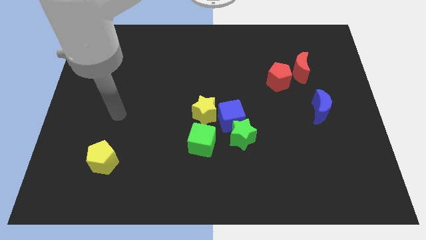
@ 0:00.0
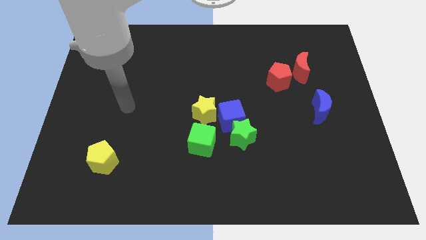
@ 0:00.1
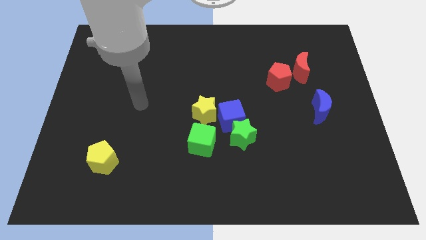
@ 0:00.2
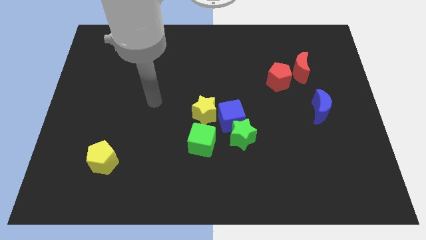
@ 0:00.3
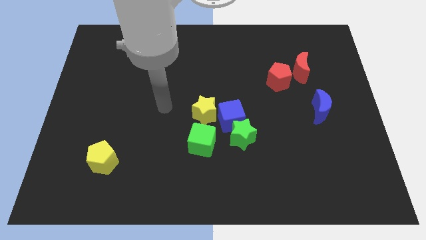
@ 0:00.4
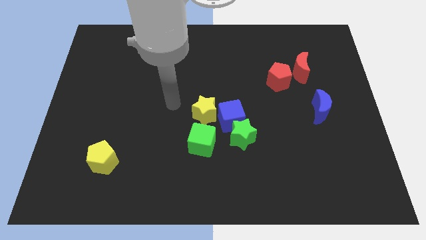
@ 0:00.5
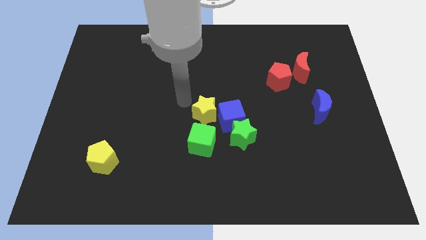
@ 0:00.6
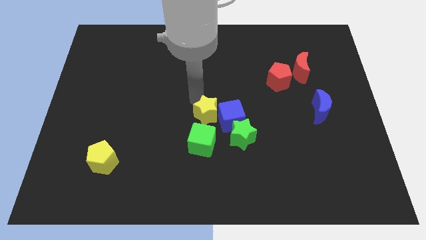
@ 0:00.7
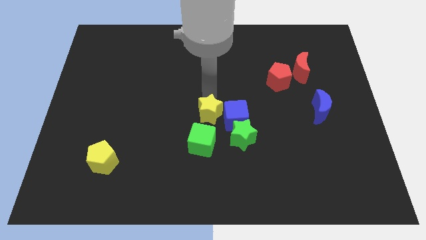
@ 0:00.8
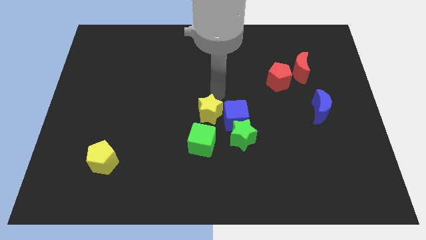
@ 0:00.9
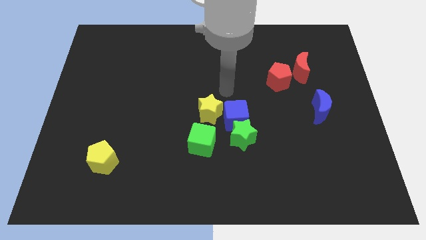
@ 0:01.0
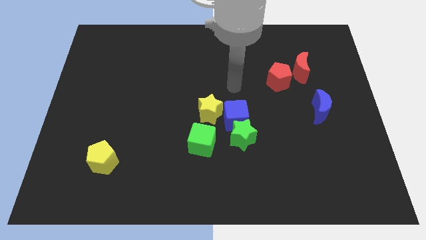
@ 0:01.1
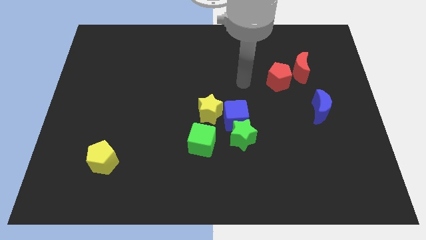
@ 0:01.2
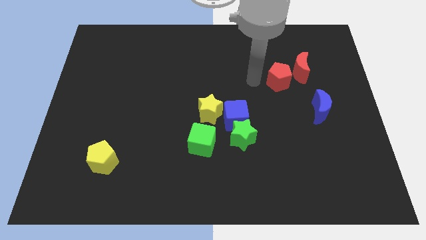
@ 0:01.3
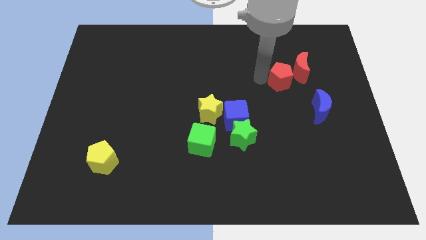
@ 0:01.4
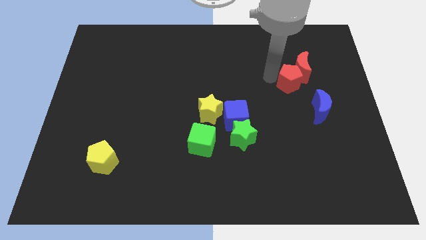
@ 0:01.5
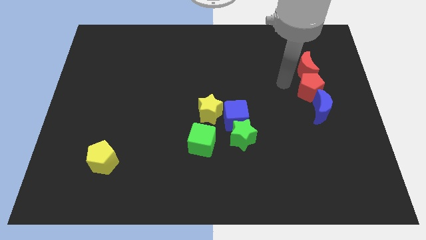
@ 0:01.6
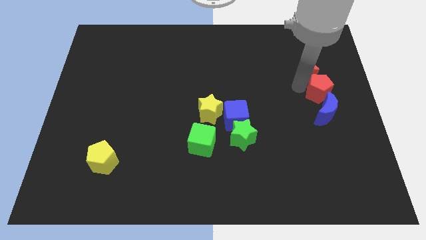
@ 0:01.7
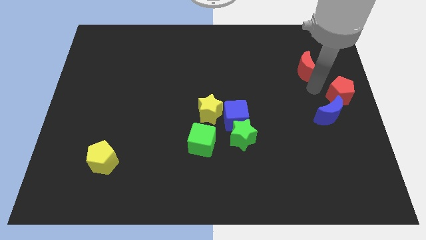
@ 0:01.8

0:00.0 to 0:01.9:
pull the red moon apart from the red pentagon

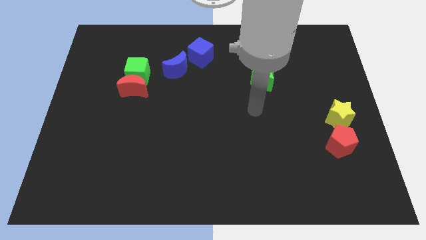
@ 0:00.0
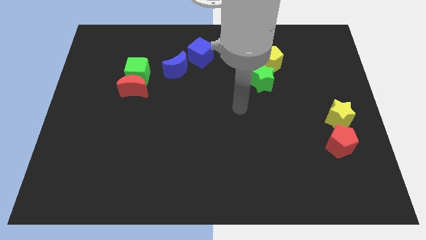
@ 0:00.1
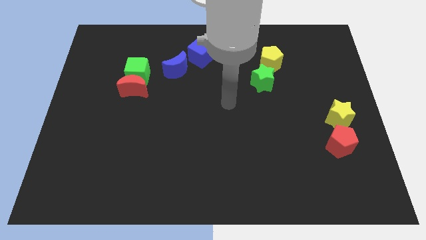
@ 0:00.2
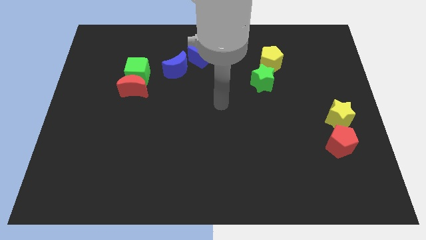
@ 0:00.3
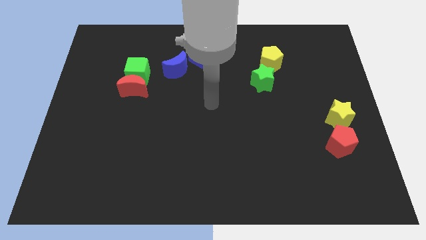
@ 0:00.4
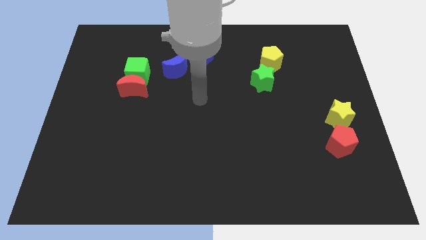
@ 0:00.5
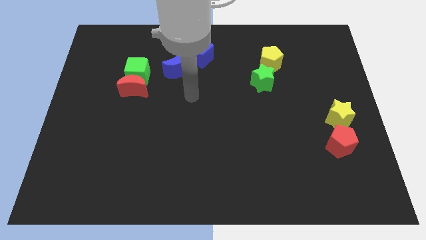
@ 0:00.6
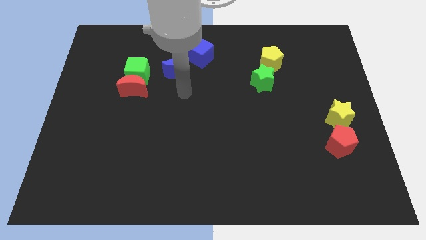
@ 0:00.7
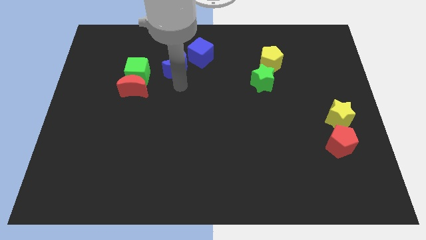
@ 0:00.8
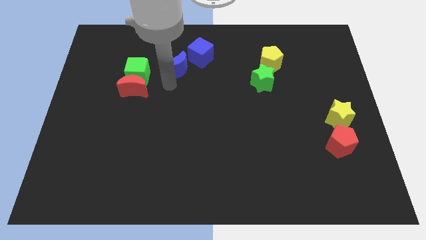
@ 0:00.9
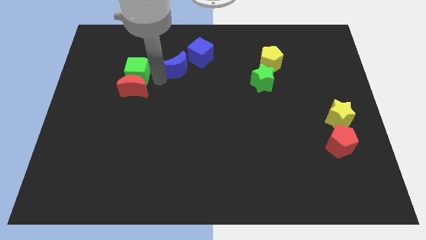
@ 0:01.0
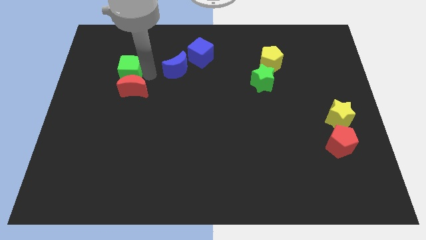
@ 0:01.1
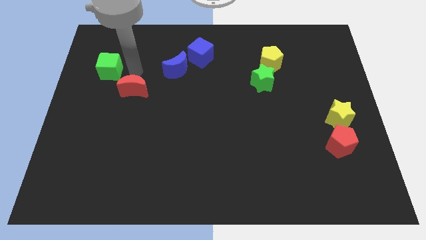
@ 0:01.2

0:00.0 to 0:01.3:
pull the red moon apart from the green cube

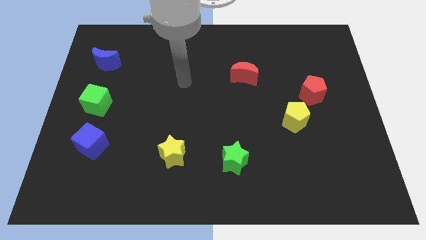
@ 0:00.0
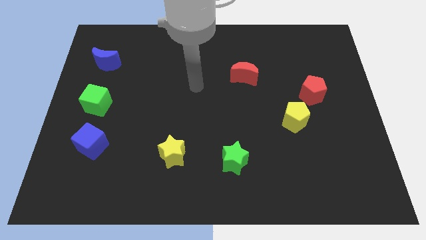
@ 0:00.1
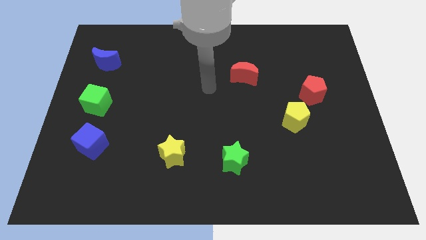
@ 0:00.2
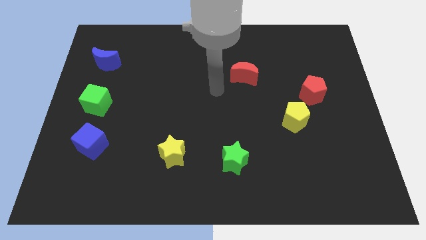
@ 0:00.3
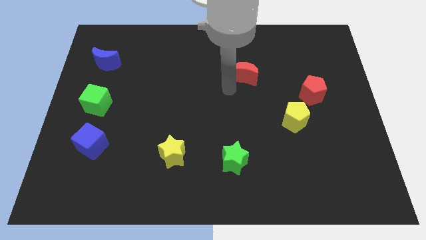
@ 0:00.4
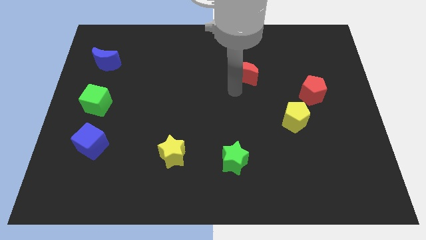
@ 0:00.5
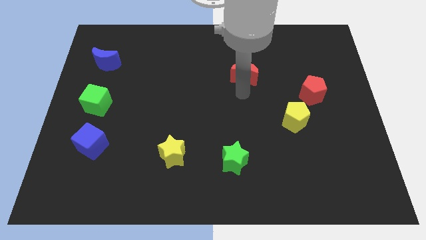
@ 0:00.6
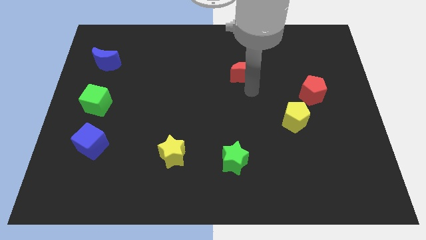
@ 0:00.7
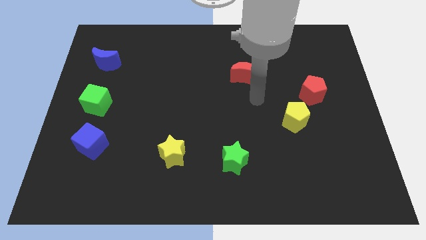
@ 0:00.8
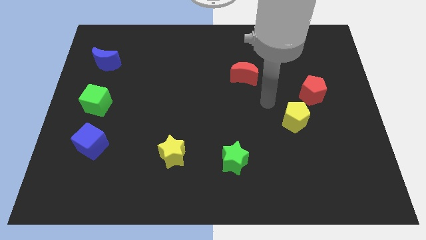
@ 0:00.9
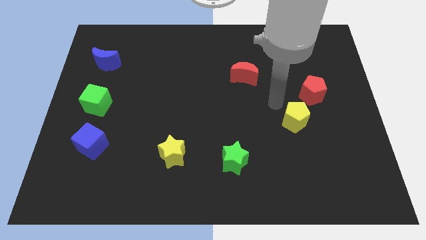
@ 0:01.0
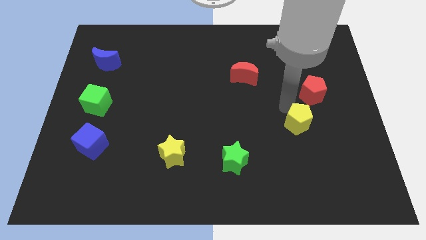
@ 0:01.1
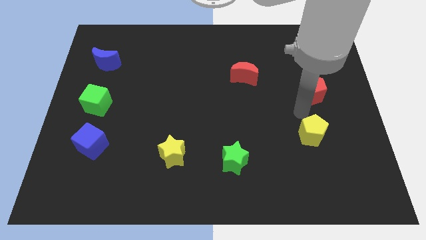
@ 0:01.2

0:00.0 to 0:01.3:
pull the red pentagon apart from the yellow pentagon

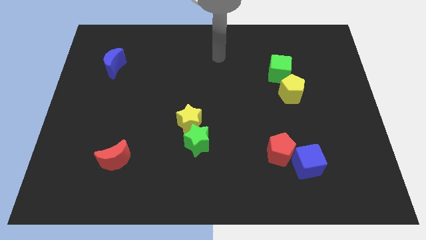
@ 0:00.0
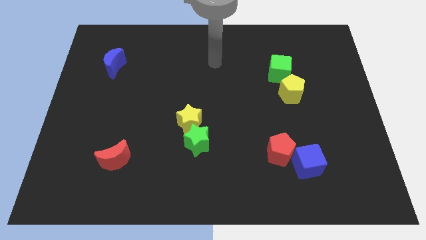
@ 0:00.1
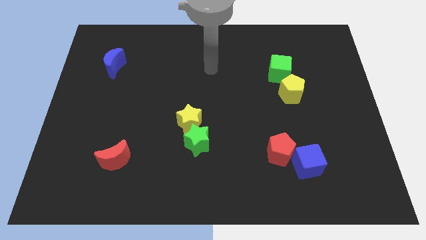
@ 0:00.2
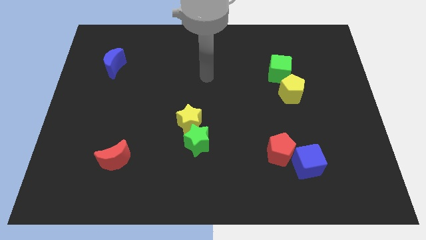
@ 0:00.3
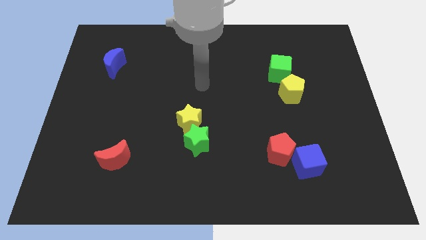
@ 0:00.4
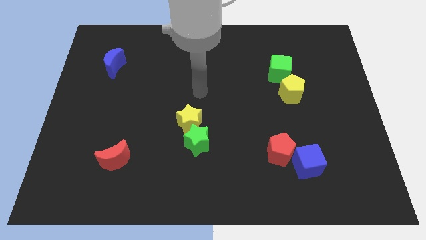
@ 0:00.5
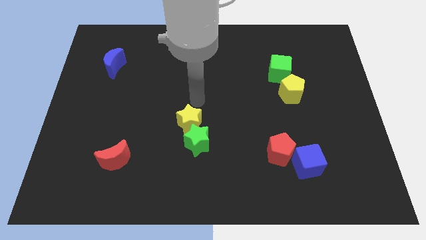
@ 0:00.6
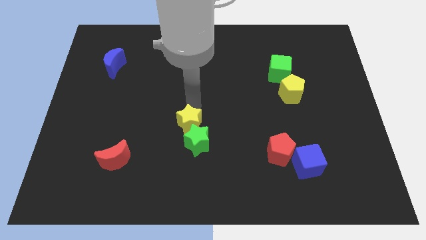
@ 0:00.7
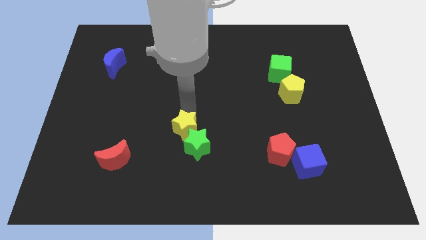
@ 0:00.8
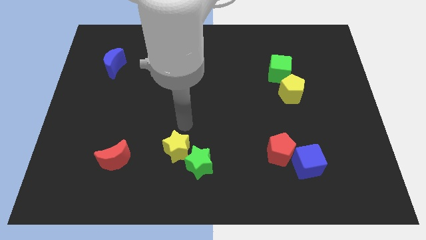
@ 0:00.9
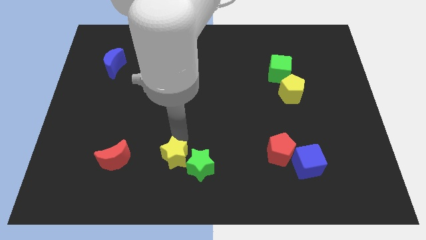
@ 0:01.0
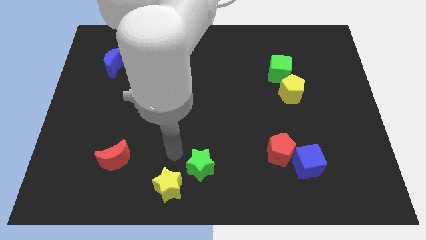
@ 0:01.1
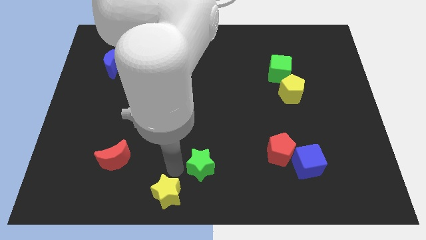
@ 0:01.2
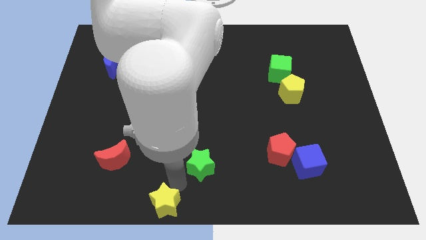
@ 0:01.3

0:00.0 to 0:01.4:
pull the green star apart from the yellow star

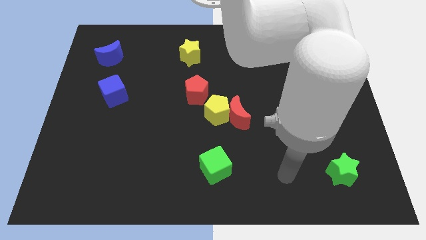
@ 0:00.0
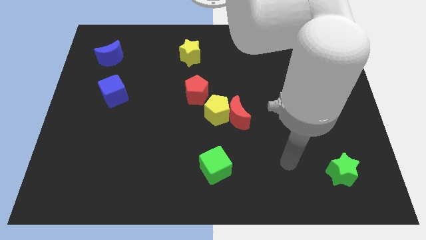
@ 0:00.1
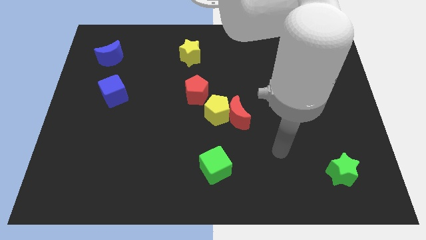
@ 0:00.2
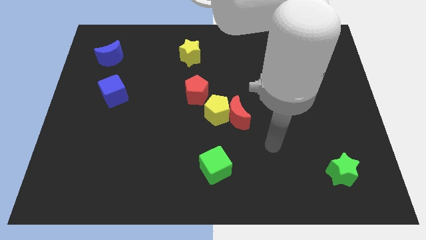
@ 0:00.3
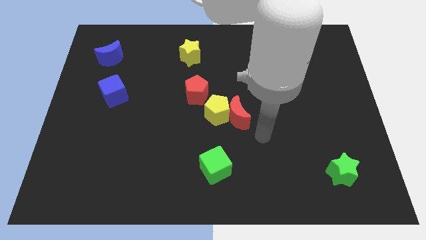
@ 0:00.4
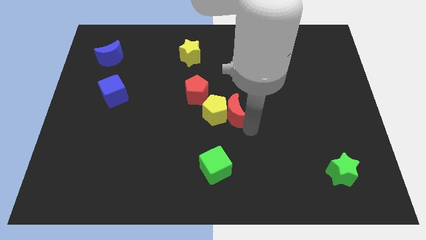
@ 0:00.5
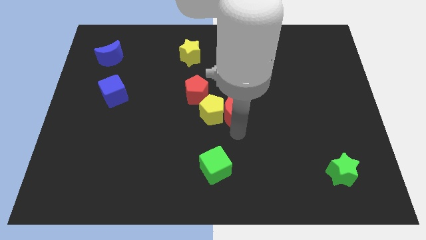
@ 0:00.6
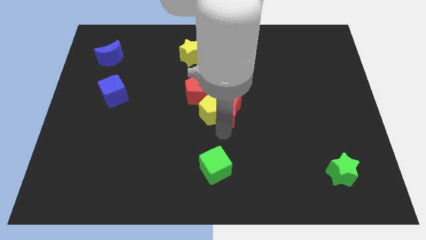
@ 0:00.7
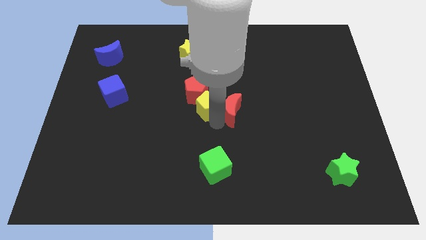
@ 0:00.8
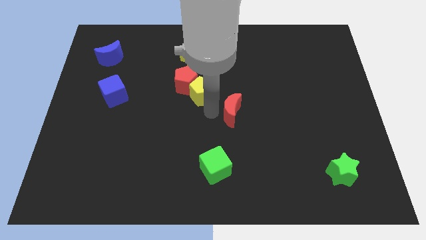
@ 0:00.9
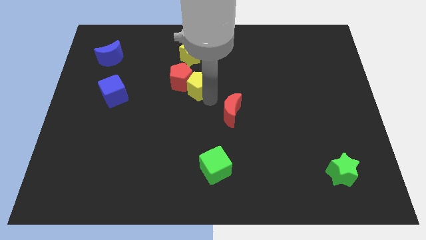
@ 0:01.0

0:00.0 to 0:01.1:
pull the red moon apart from the yellow pentagon

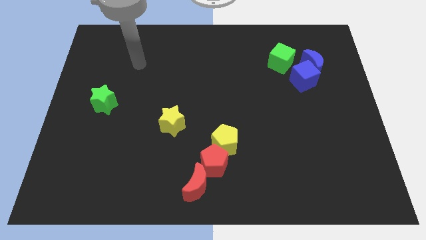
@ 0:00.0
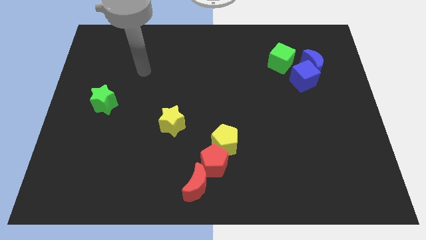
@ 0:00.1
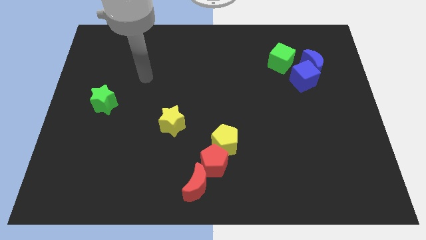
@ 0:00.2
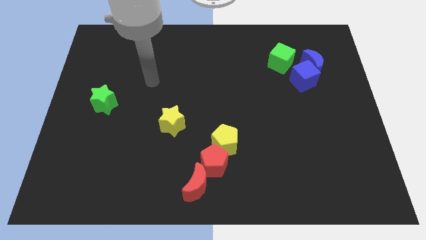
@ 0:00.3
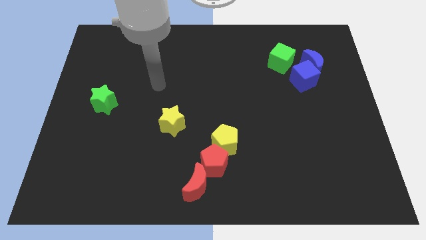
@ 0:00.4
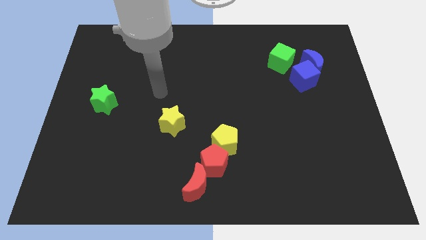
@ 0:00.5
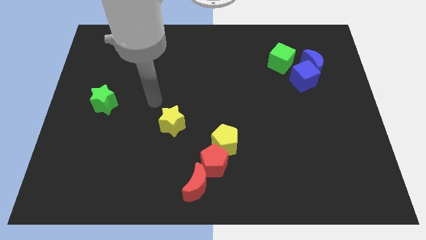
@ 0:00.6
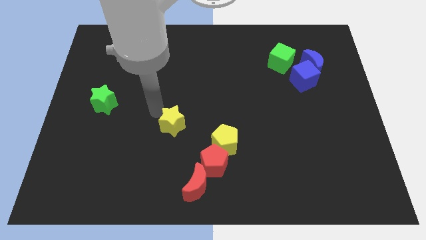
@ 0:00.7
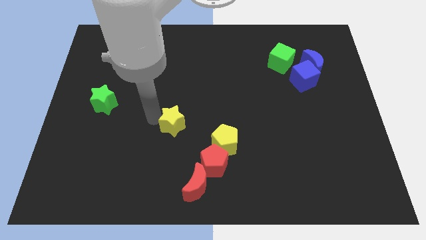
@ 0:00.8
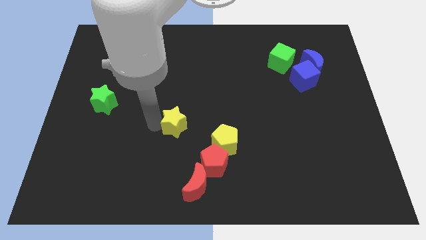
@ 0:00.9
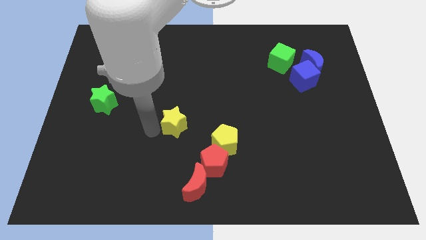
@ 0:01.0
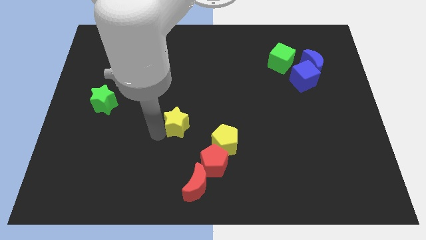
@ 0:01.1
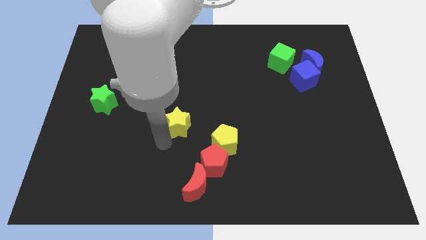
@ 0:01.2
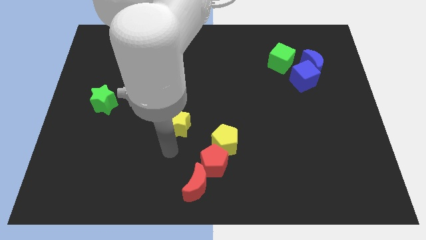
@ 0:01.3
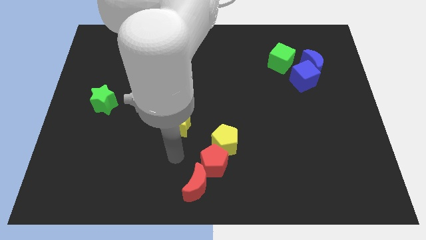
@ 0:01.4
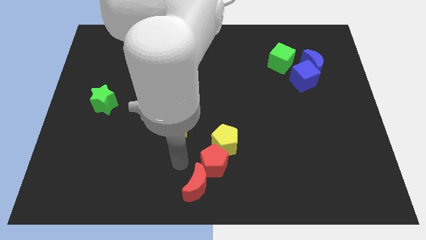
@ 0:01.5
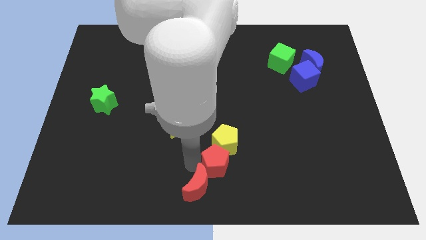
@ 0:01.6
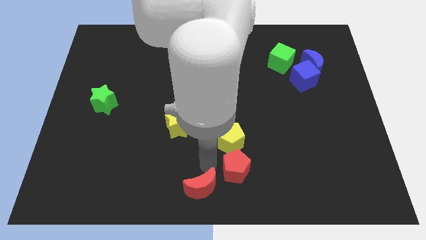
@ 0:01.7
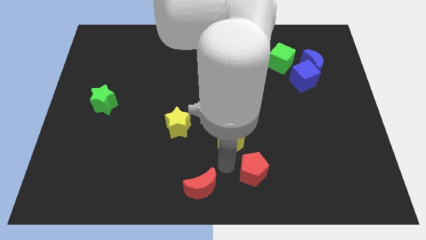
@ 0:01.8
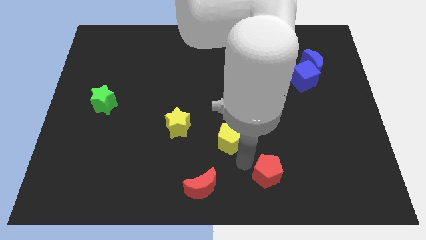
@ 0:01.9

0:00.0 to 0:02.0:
move the yellow pentagon away from the red pentagon

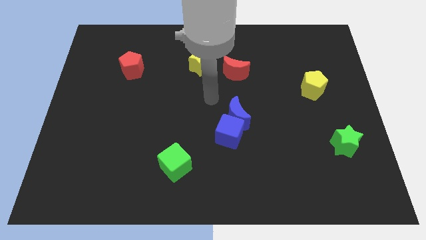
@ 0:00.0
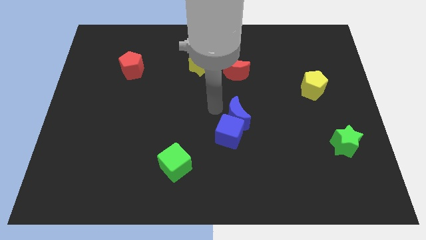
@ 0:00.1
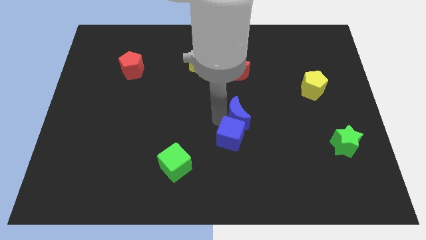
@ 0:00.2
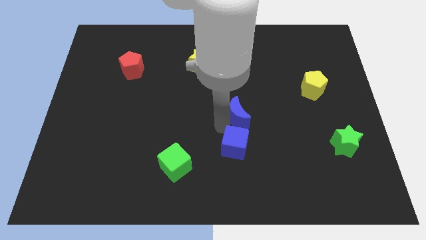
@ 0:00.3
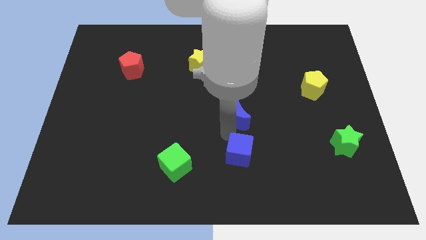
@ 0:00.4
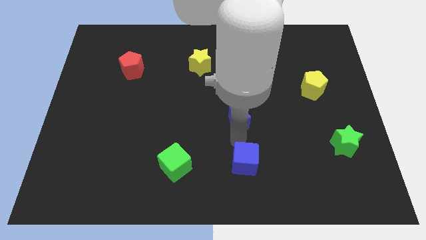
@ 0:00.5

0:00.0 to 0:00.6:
move the blue moon away from the blue cube
